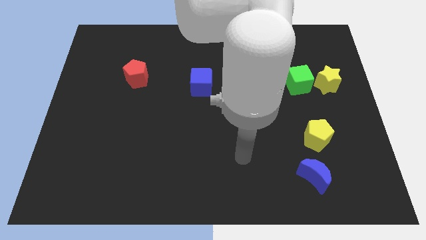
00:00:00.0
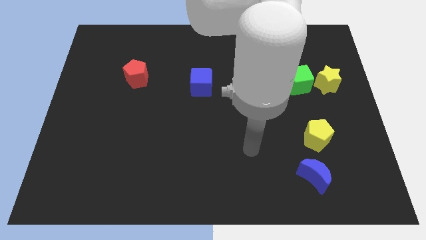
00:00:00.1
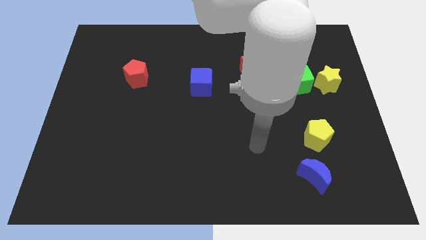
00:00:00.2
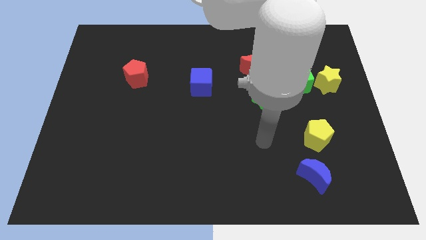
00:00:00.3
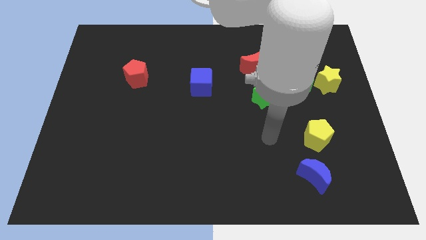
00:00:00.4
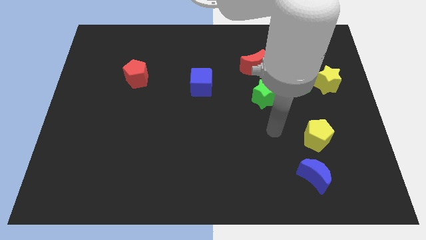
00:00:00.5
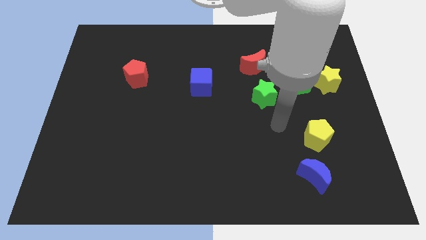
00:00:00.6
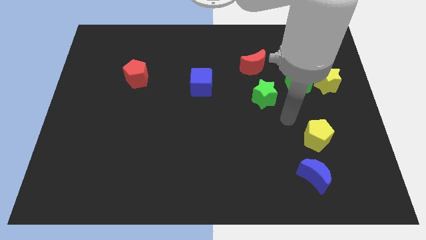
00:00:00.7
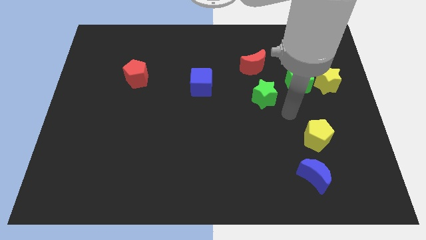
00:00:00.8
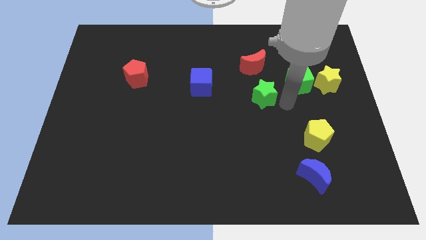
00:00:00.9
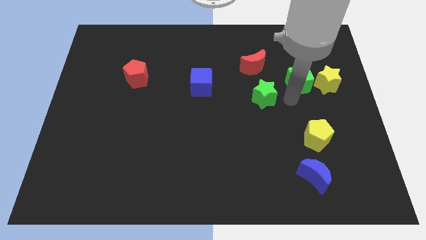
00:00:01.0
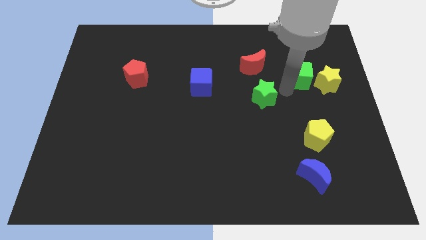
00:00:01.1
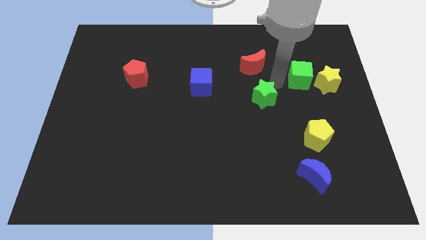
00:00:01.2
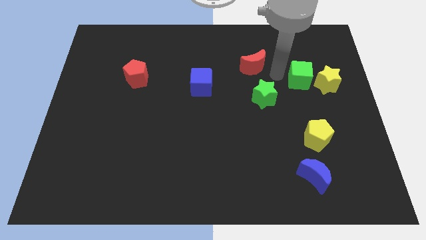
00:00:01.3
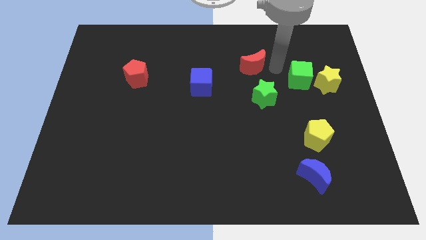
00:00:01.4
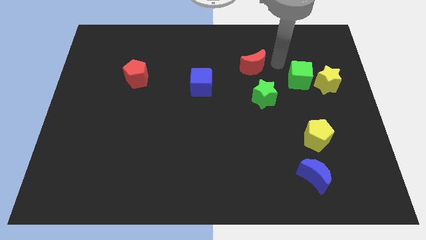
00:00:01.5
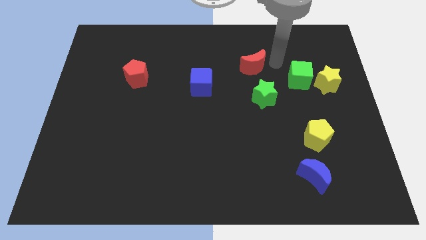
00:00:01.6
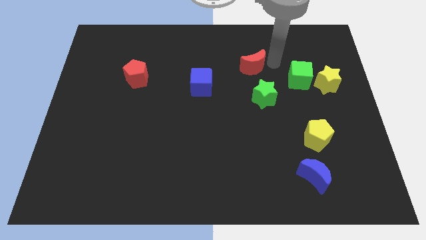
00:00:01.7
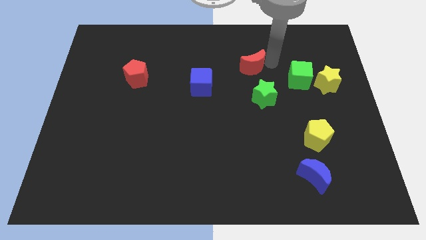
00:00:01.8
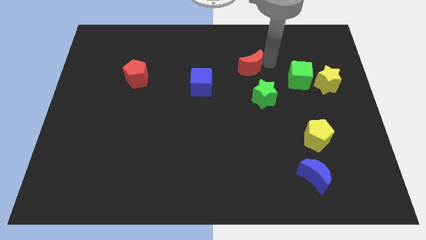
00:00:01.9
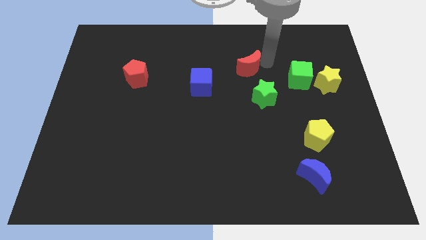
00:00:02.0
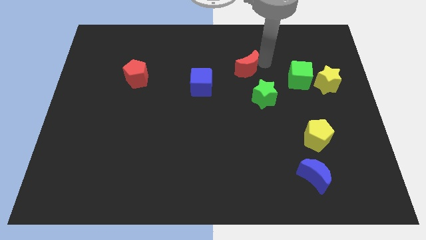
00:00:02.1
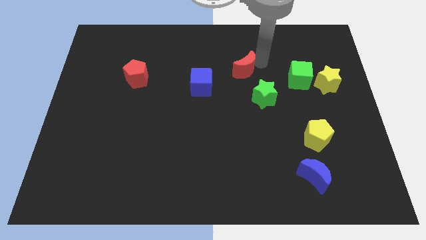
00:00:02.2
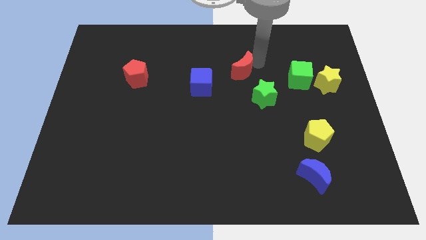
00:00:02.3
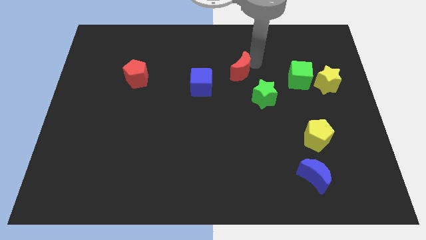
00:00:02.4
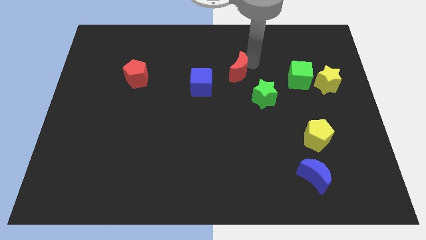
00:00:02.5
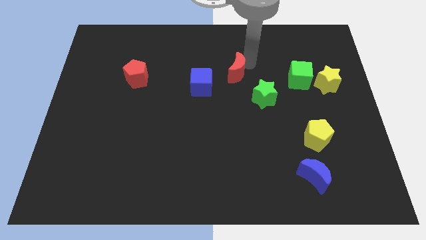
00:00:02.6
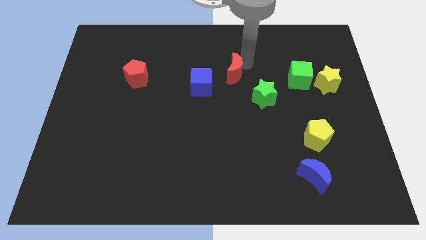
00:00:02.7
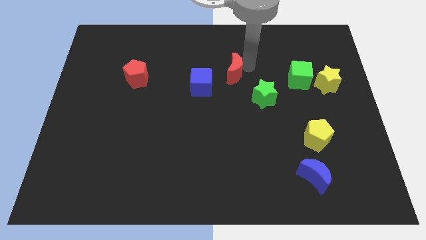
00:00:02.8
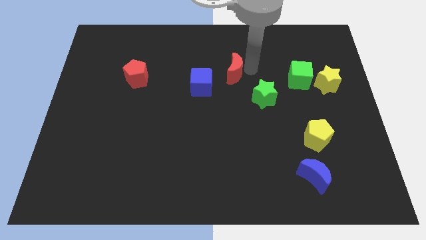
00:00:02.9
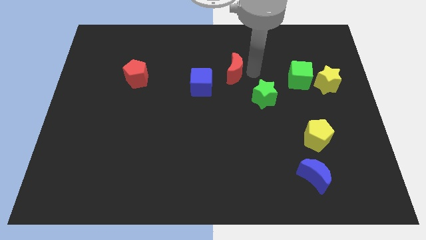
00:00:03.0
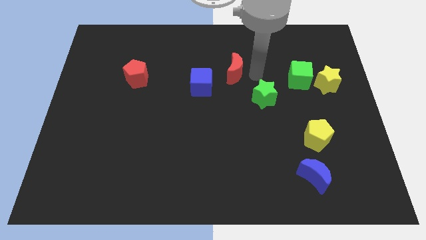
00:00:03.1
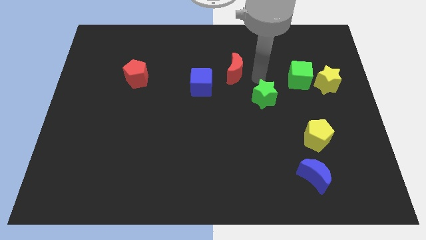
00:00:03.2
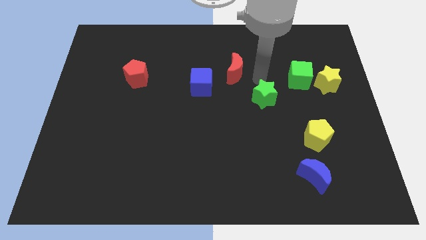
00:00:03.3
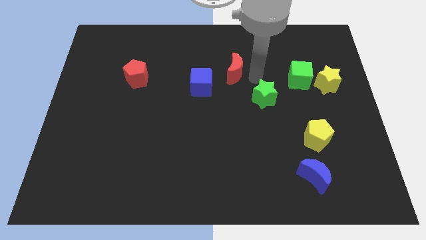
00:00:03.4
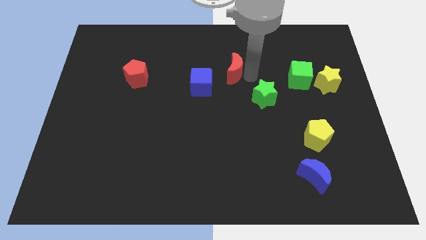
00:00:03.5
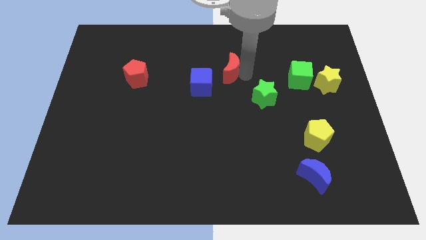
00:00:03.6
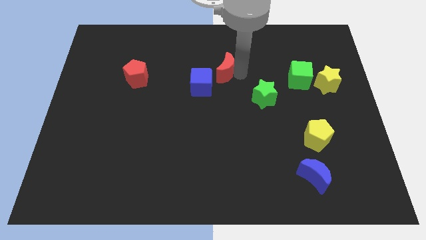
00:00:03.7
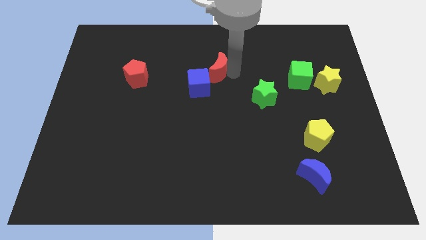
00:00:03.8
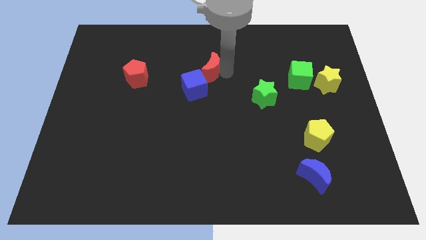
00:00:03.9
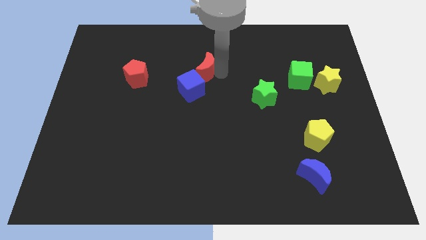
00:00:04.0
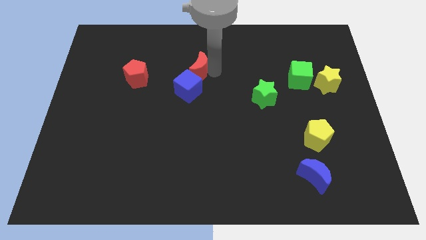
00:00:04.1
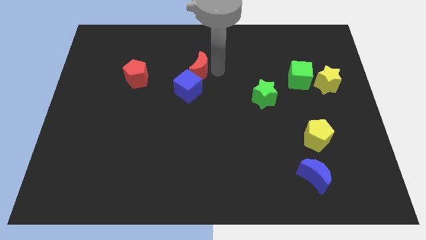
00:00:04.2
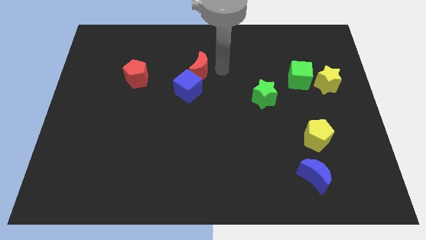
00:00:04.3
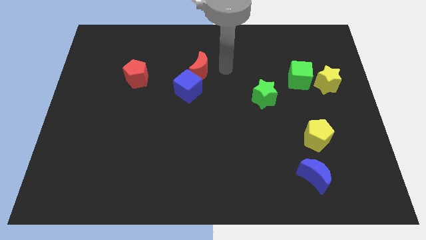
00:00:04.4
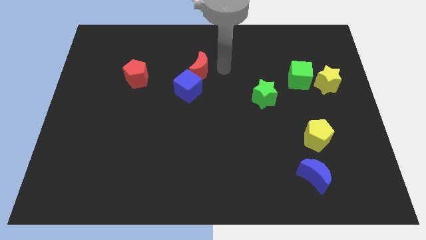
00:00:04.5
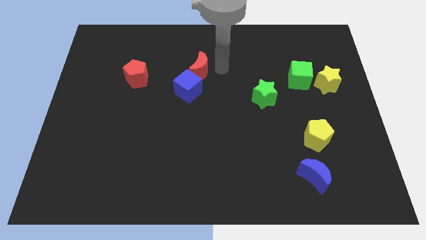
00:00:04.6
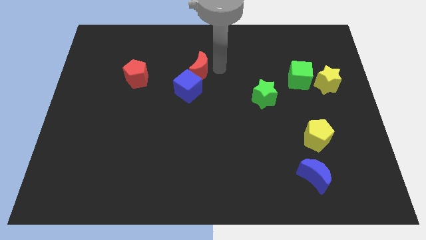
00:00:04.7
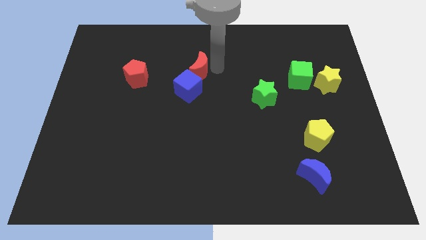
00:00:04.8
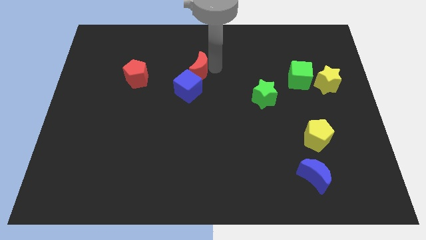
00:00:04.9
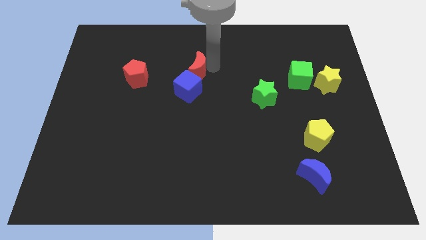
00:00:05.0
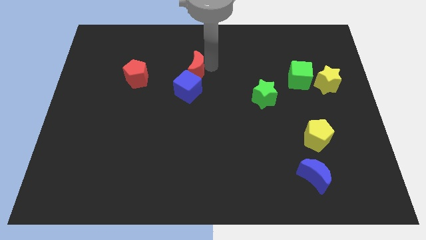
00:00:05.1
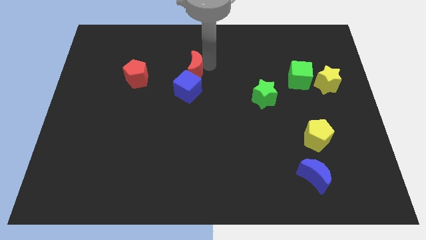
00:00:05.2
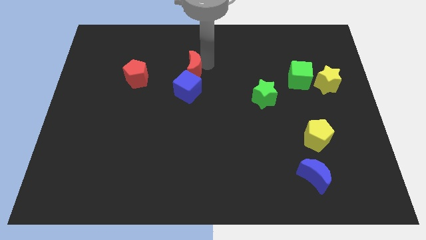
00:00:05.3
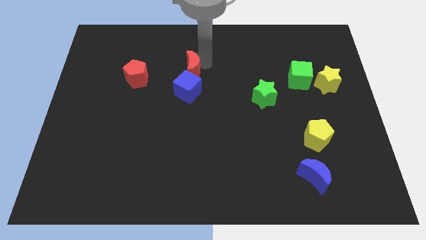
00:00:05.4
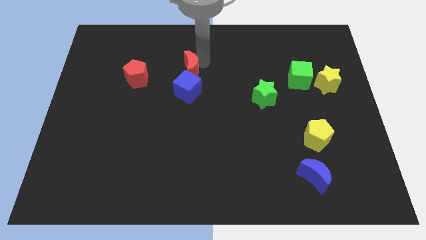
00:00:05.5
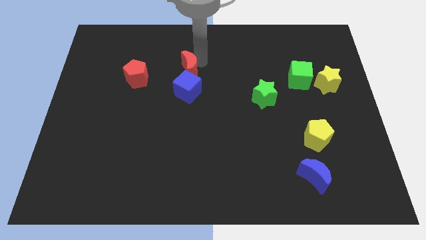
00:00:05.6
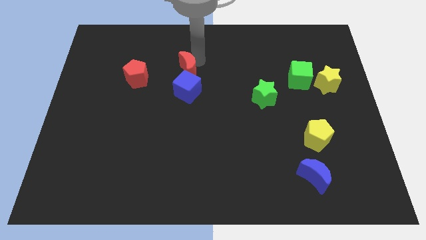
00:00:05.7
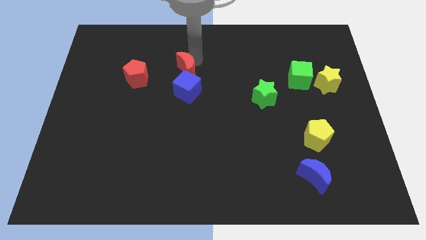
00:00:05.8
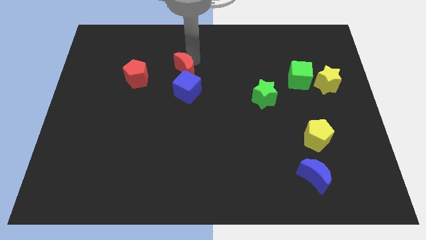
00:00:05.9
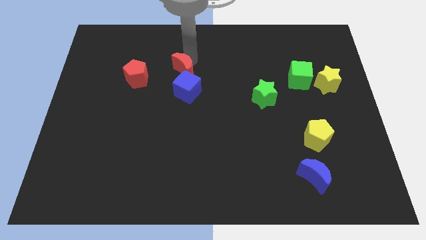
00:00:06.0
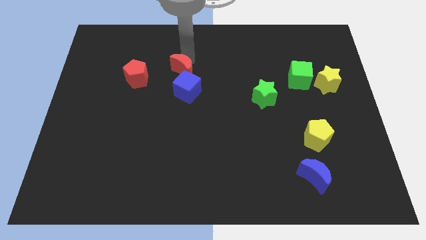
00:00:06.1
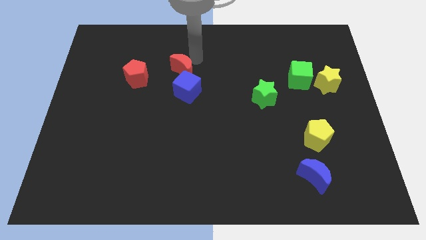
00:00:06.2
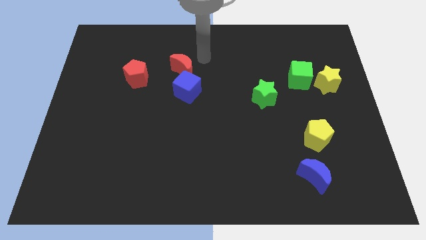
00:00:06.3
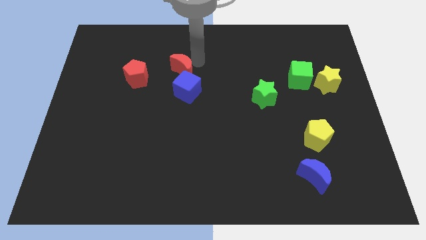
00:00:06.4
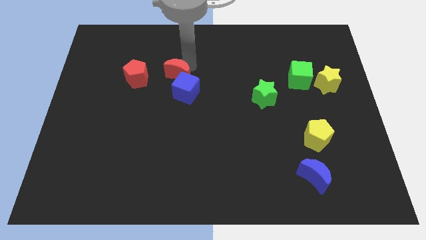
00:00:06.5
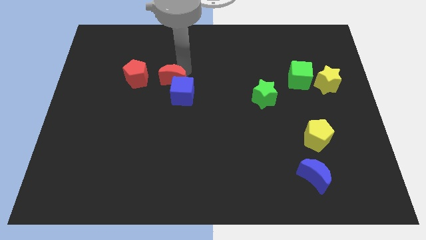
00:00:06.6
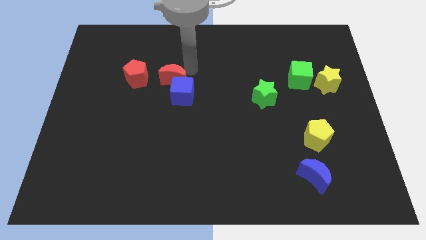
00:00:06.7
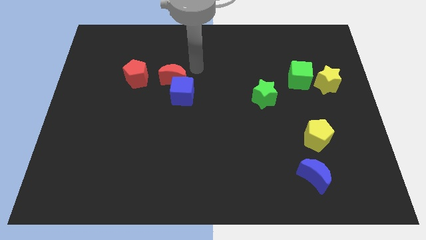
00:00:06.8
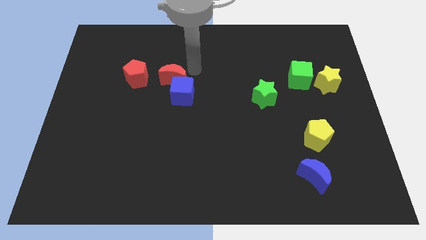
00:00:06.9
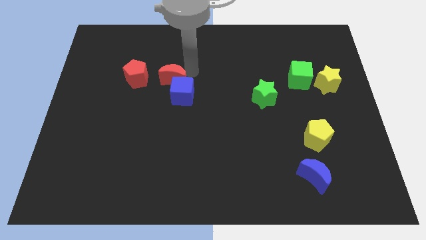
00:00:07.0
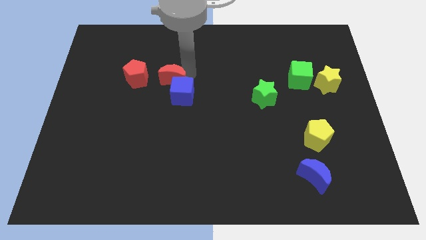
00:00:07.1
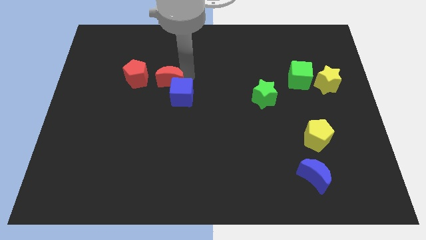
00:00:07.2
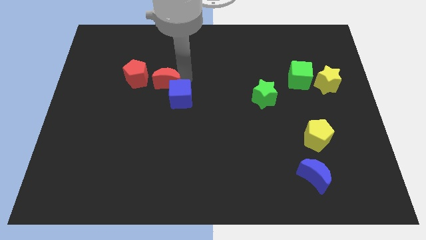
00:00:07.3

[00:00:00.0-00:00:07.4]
move the red moon to the left side of the blue cube
